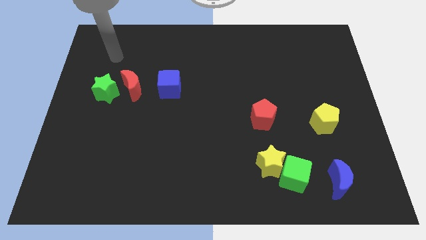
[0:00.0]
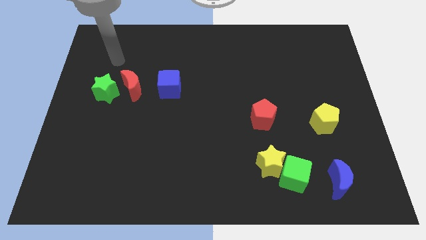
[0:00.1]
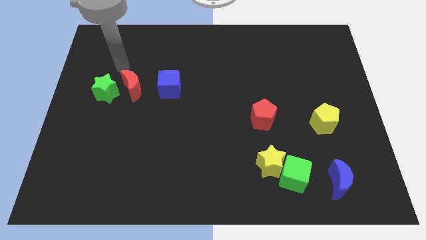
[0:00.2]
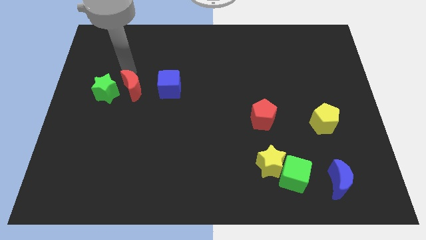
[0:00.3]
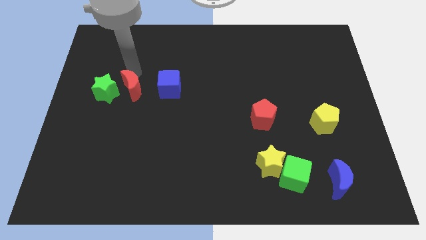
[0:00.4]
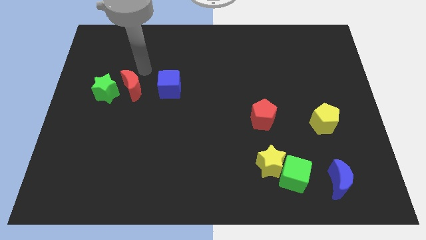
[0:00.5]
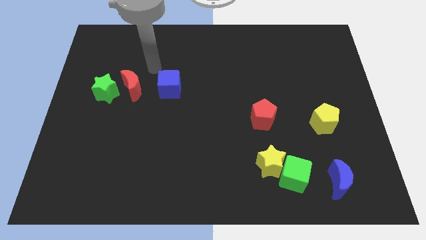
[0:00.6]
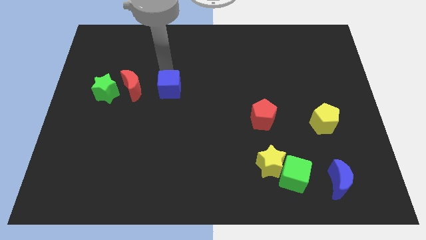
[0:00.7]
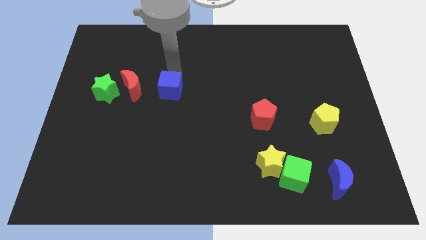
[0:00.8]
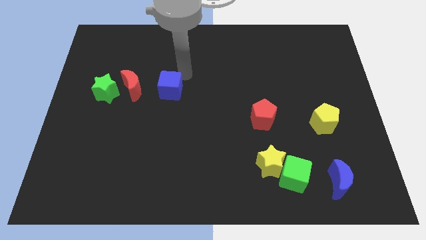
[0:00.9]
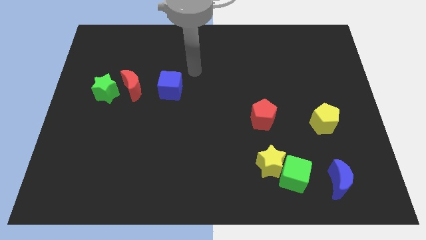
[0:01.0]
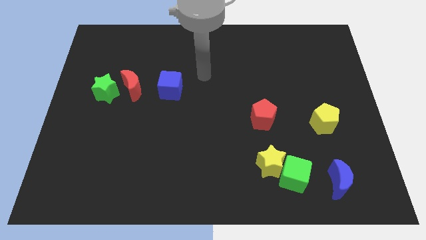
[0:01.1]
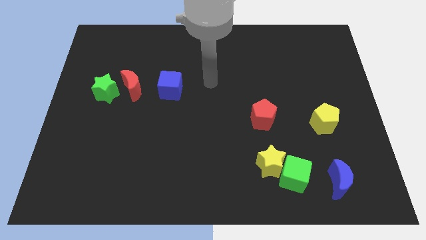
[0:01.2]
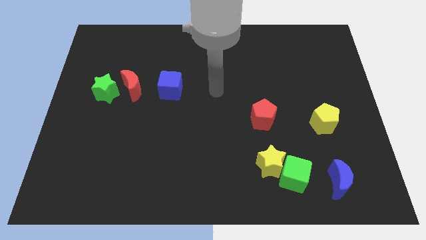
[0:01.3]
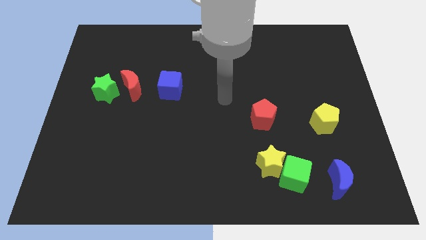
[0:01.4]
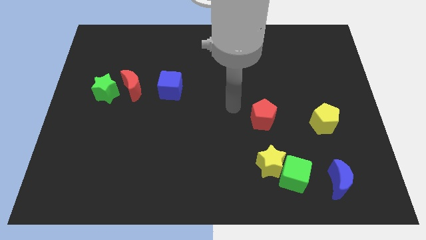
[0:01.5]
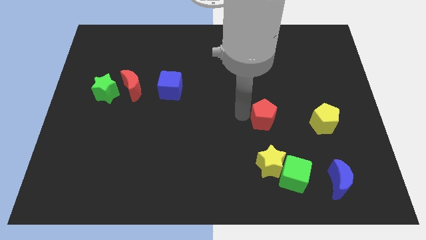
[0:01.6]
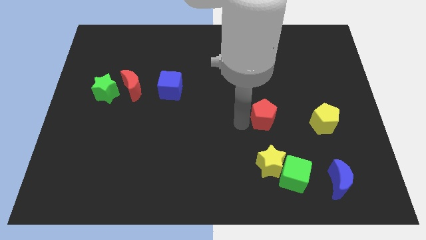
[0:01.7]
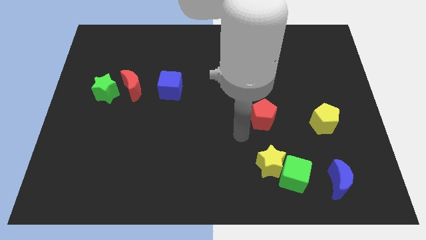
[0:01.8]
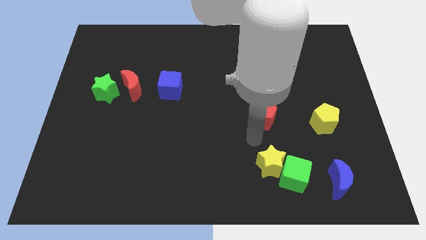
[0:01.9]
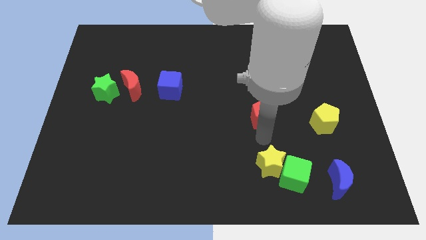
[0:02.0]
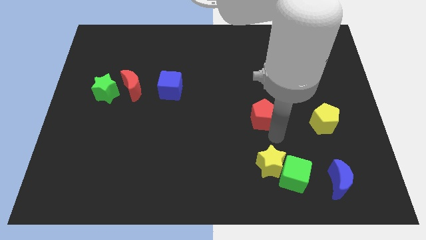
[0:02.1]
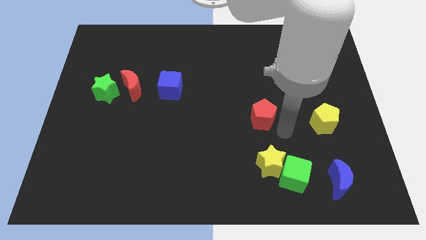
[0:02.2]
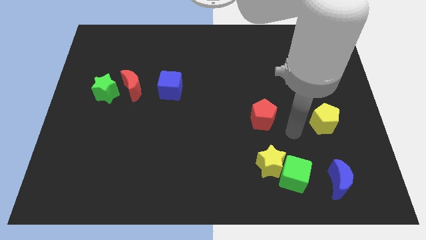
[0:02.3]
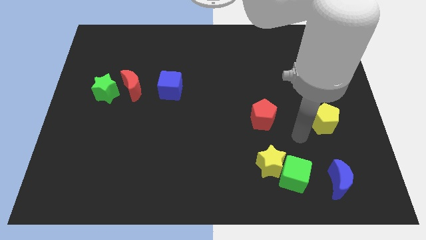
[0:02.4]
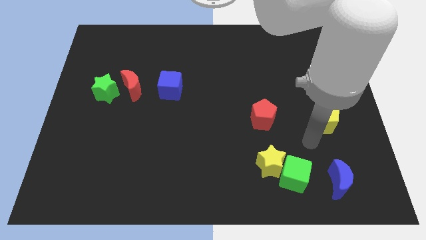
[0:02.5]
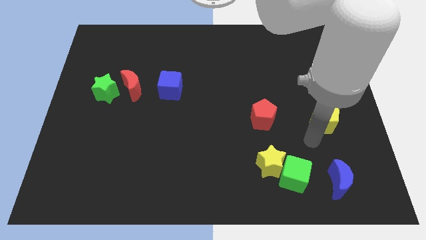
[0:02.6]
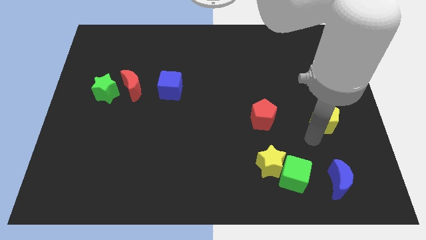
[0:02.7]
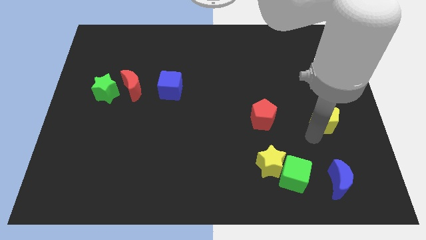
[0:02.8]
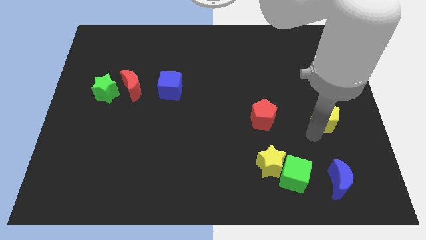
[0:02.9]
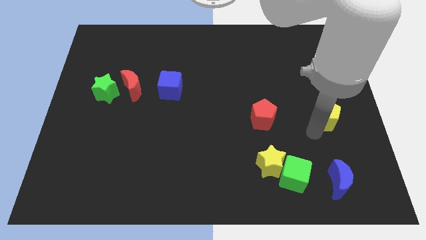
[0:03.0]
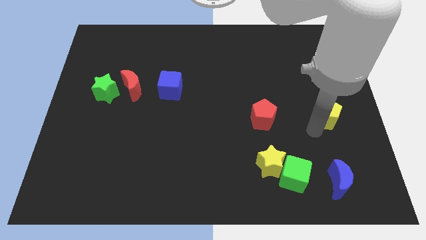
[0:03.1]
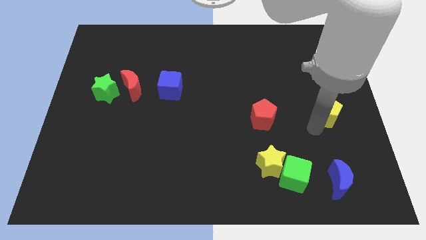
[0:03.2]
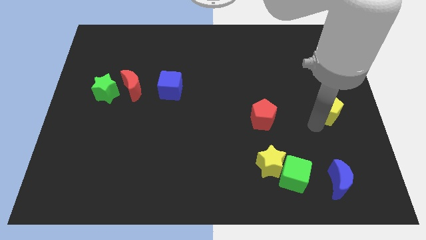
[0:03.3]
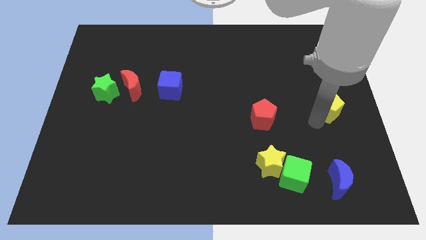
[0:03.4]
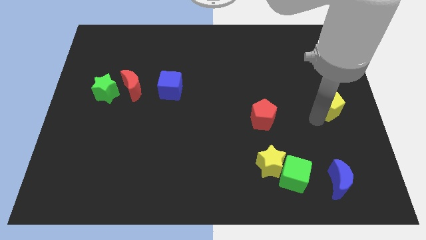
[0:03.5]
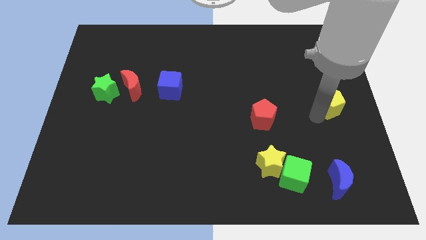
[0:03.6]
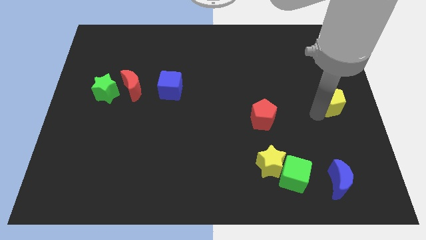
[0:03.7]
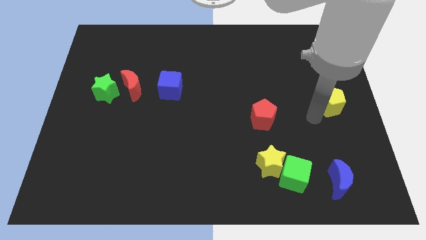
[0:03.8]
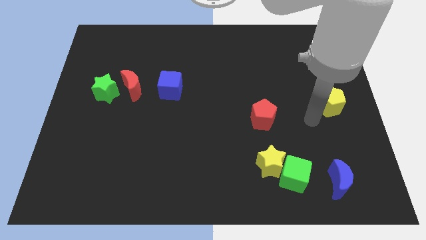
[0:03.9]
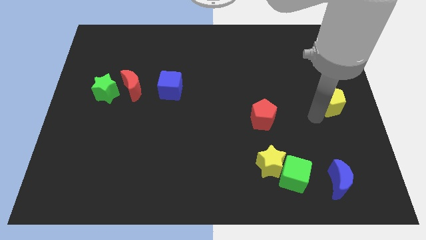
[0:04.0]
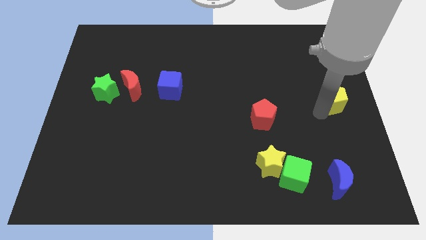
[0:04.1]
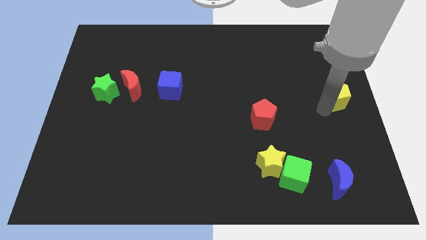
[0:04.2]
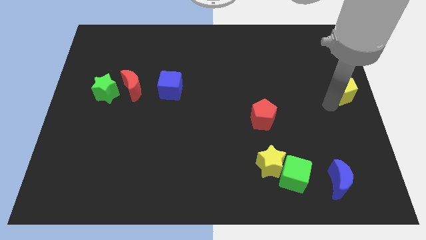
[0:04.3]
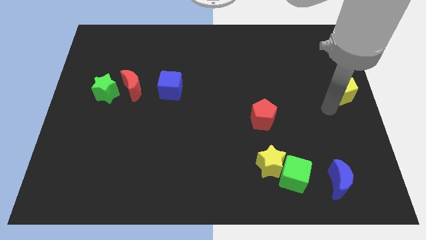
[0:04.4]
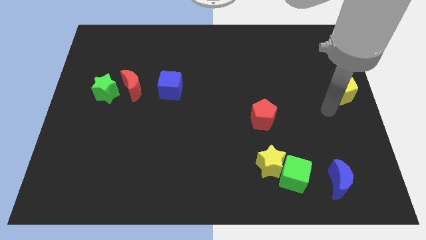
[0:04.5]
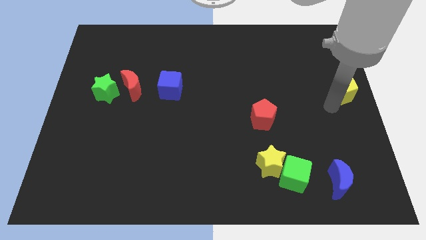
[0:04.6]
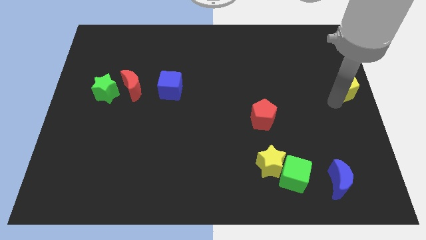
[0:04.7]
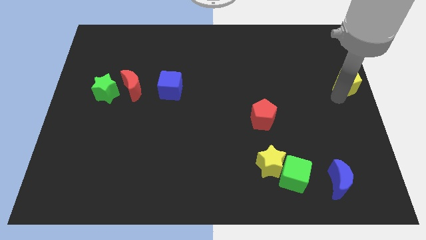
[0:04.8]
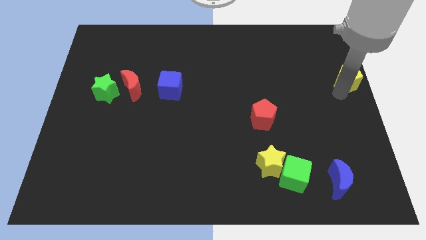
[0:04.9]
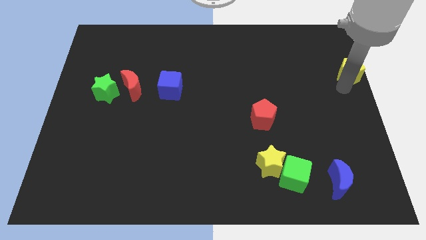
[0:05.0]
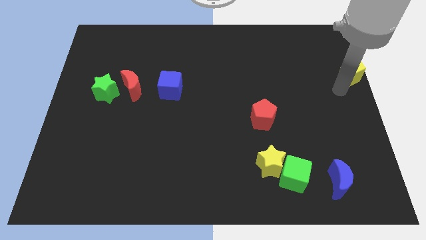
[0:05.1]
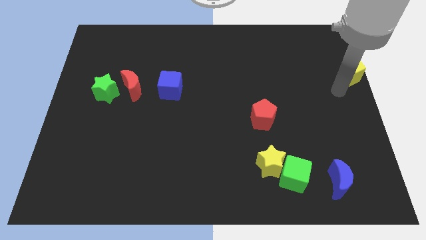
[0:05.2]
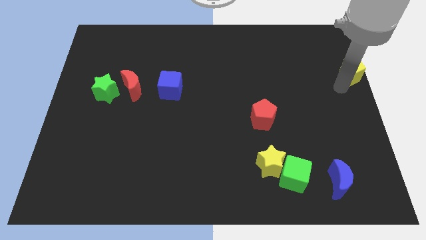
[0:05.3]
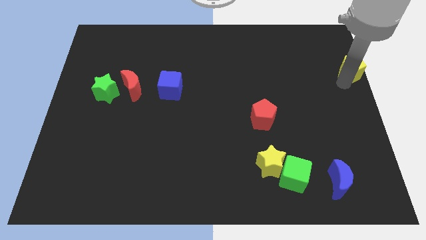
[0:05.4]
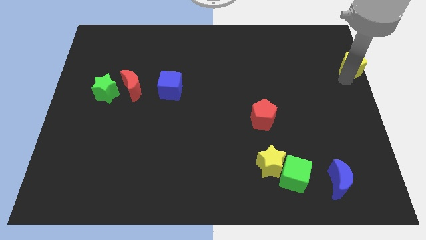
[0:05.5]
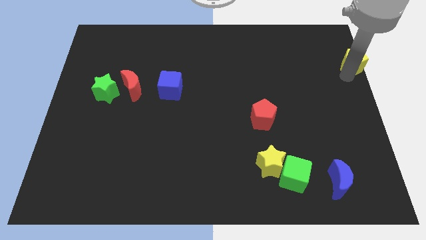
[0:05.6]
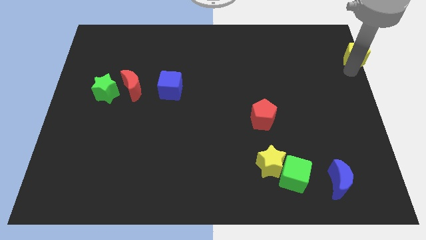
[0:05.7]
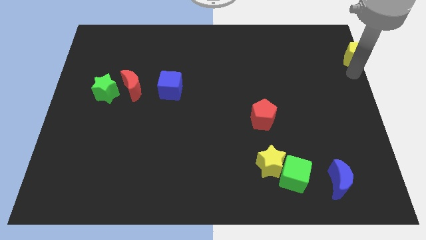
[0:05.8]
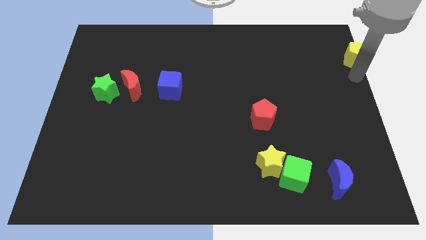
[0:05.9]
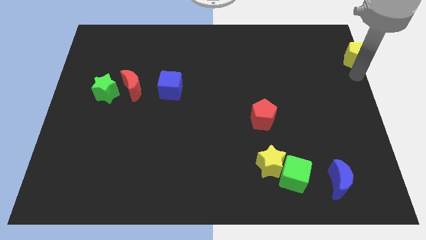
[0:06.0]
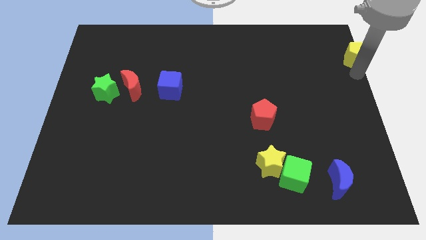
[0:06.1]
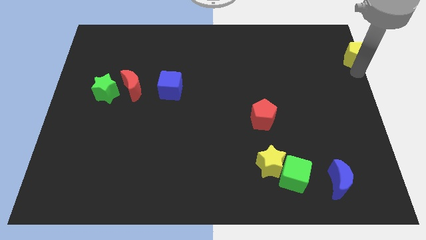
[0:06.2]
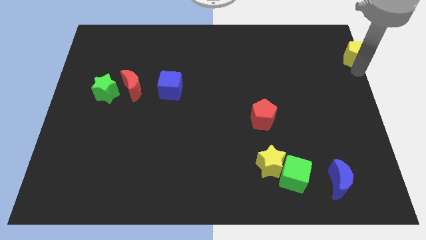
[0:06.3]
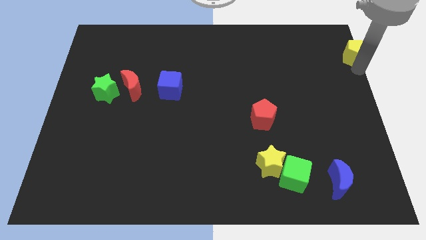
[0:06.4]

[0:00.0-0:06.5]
put the yellow pentagon to the top right

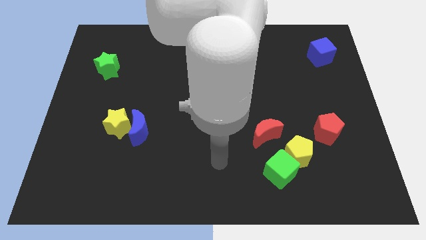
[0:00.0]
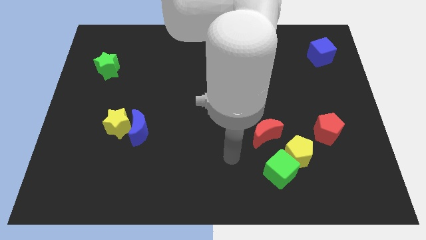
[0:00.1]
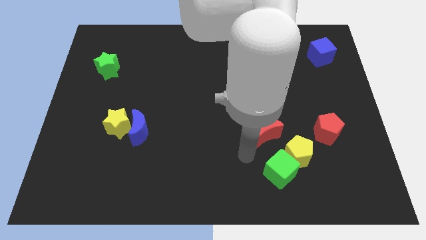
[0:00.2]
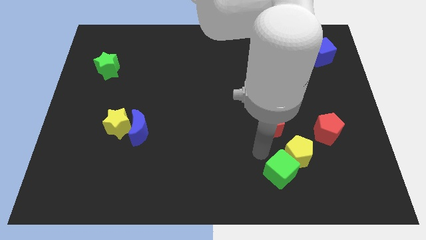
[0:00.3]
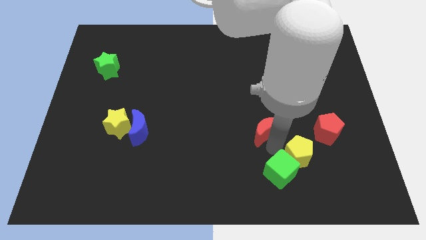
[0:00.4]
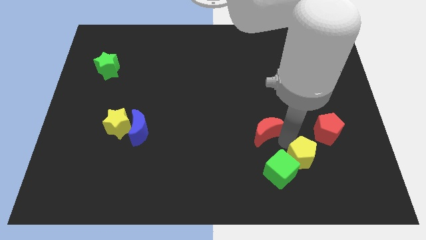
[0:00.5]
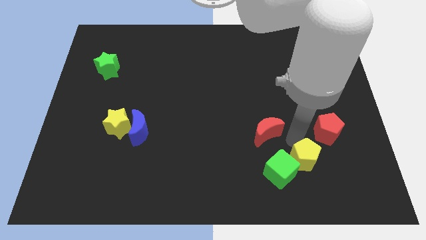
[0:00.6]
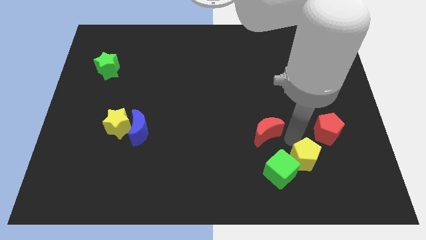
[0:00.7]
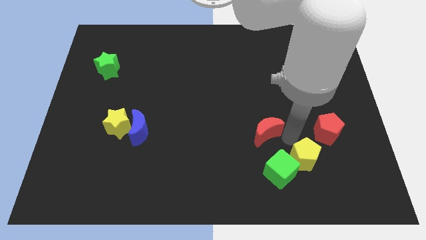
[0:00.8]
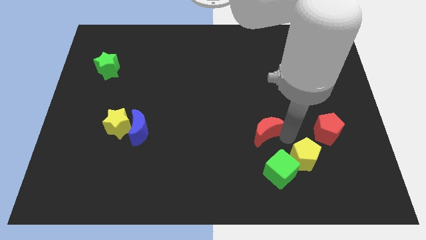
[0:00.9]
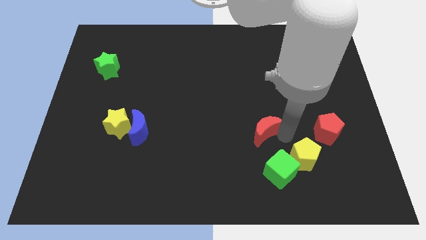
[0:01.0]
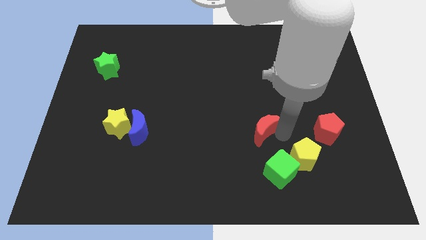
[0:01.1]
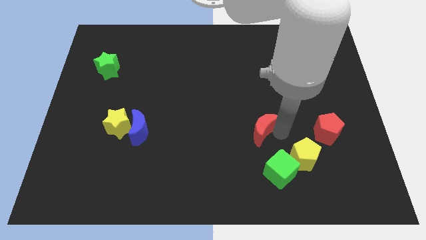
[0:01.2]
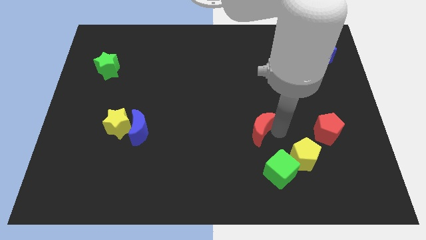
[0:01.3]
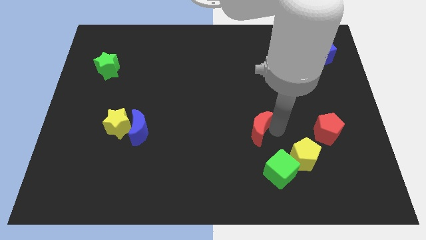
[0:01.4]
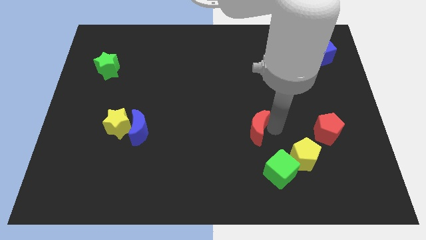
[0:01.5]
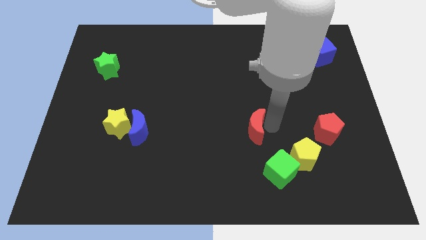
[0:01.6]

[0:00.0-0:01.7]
move the red moon to the middle
